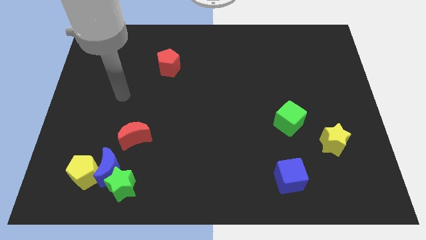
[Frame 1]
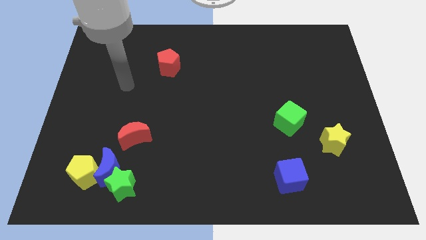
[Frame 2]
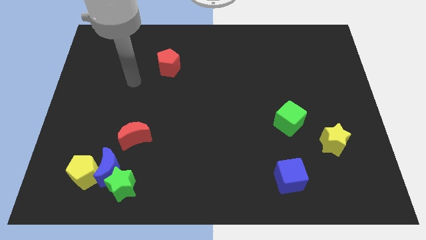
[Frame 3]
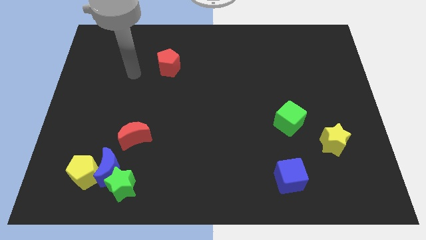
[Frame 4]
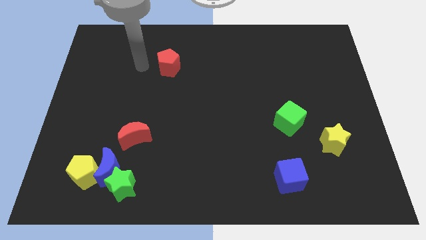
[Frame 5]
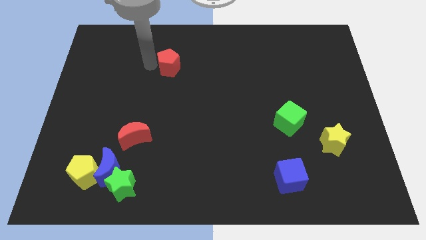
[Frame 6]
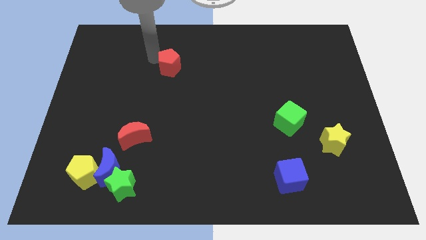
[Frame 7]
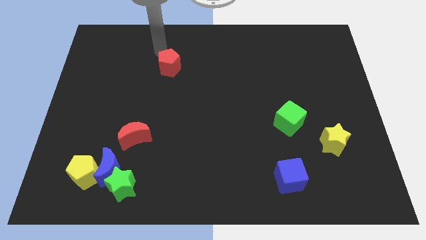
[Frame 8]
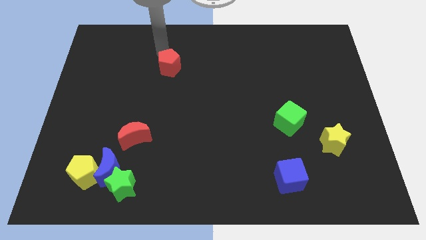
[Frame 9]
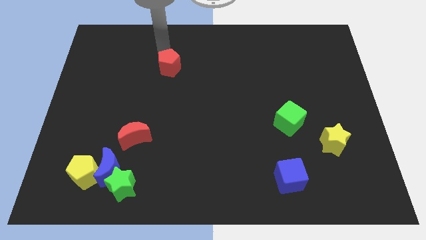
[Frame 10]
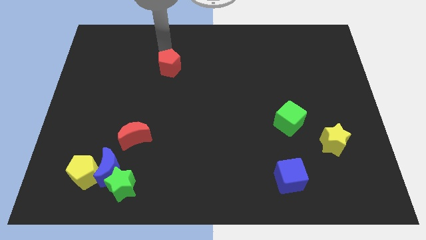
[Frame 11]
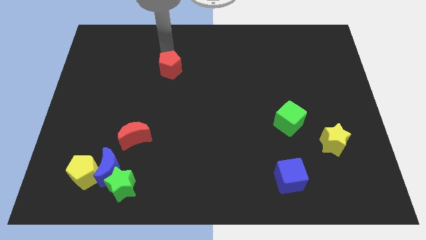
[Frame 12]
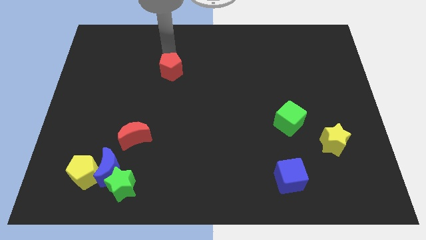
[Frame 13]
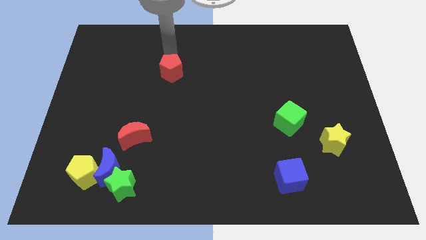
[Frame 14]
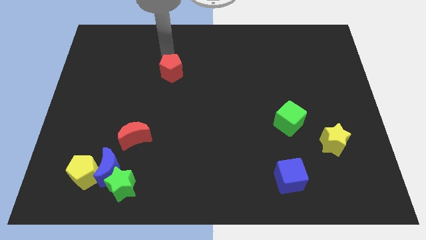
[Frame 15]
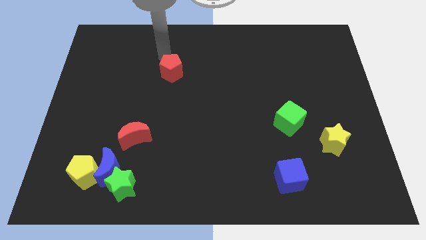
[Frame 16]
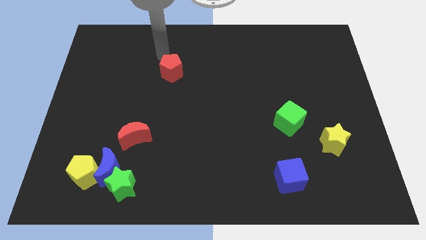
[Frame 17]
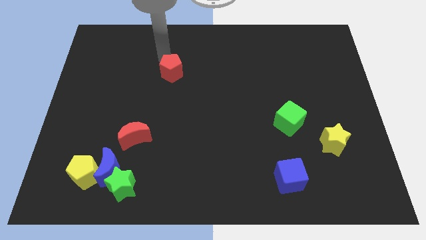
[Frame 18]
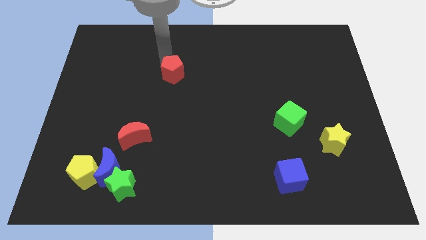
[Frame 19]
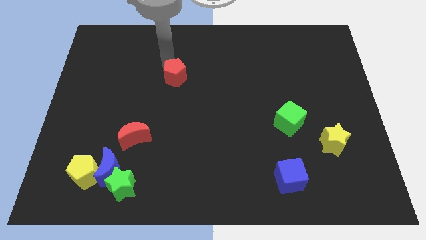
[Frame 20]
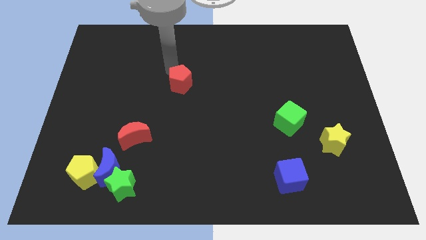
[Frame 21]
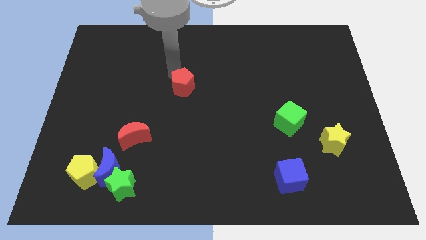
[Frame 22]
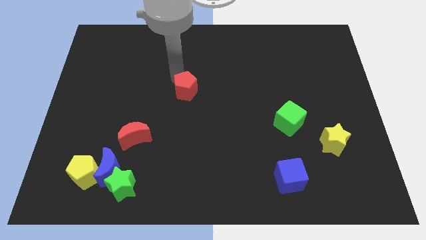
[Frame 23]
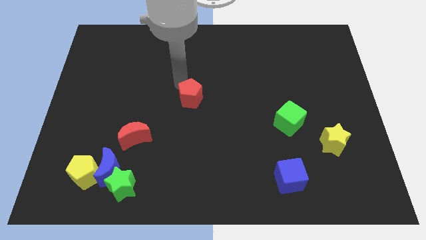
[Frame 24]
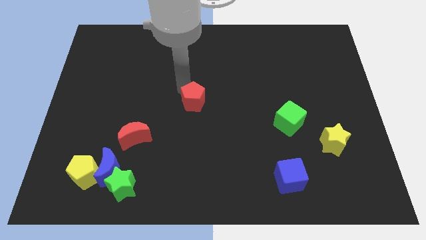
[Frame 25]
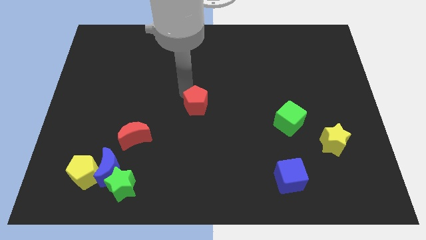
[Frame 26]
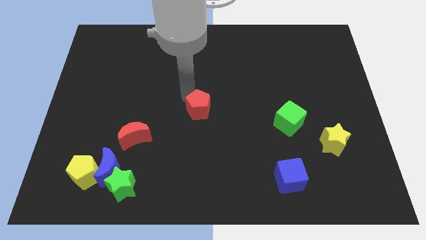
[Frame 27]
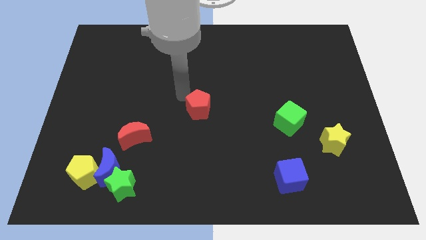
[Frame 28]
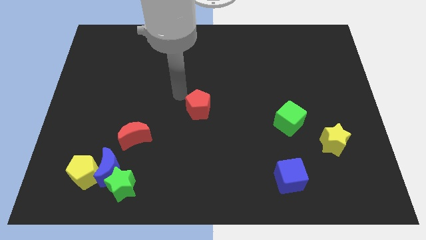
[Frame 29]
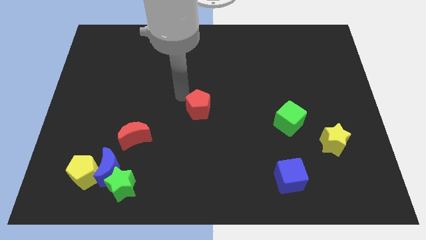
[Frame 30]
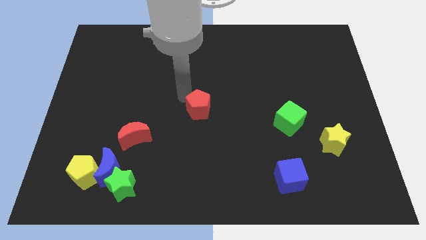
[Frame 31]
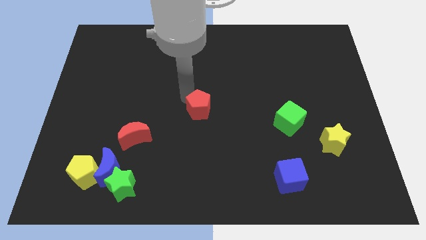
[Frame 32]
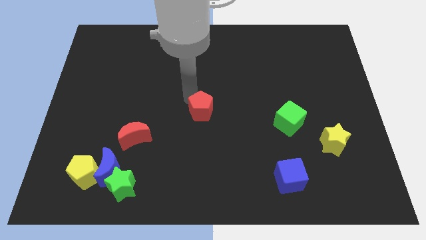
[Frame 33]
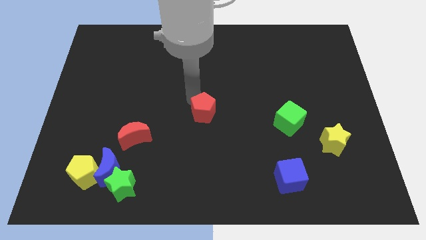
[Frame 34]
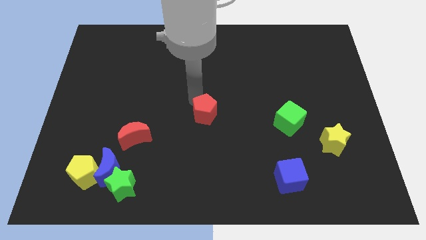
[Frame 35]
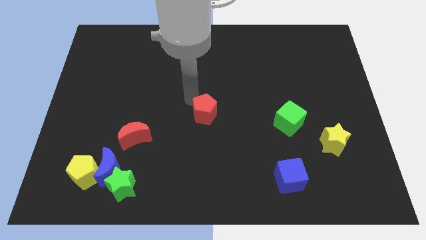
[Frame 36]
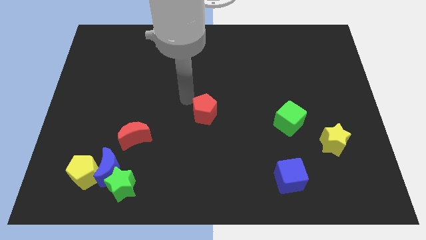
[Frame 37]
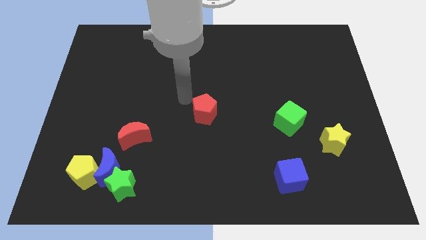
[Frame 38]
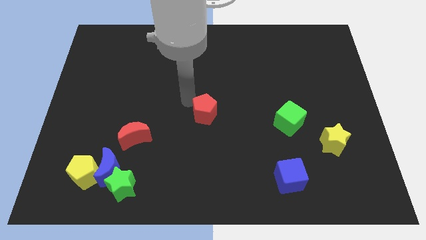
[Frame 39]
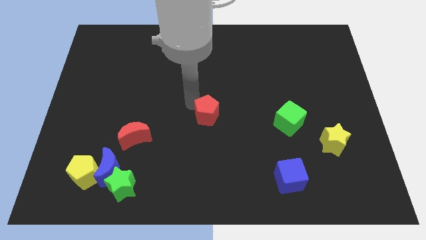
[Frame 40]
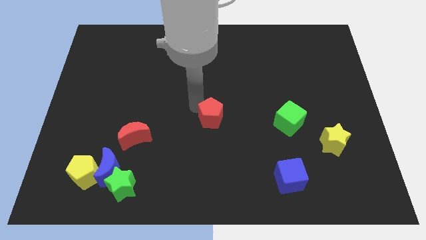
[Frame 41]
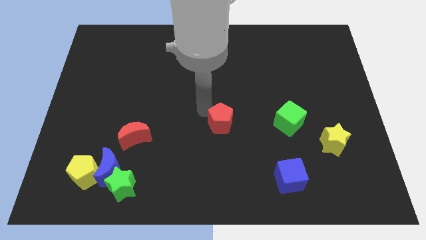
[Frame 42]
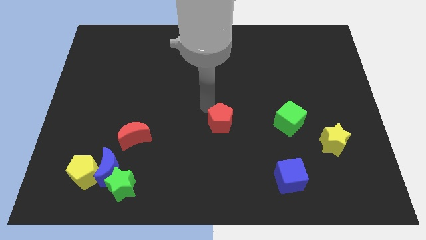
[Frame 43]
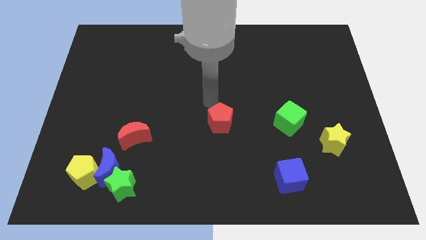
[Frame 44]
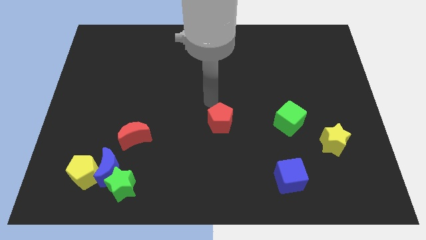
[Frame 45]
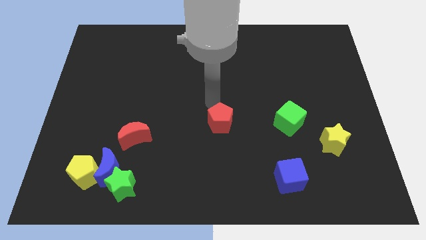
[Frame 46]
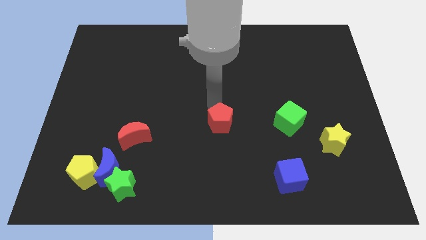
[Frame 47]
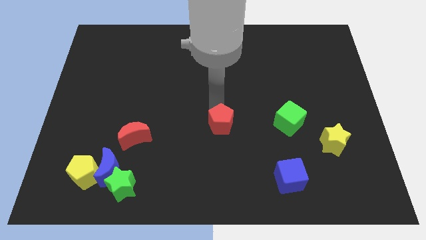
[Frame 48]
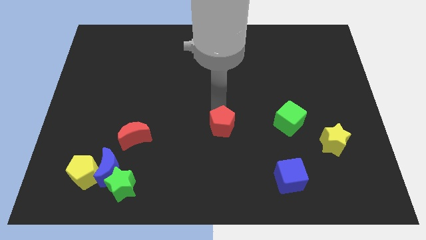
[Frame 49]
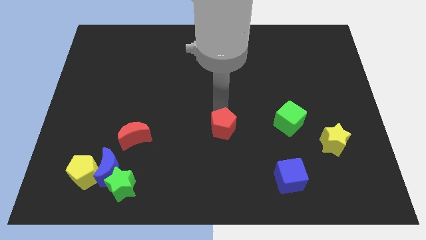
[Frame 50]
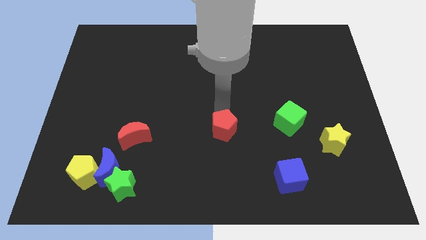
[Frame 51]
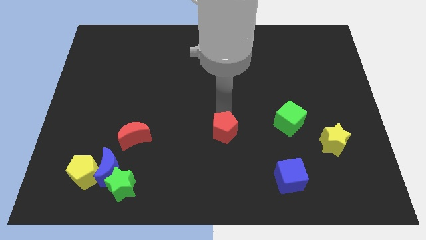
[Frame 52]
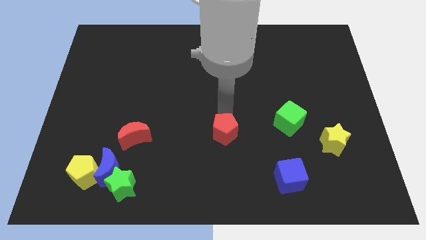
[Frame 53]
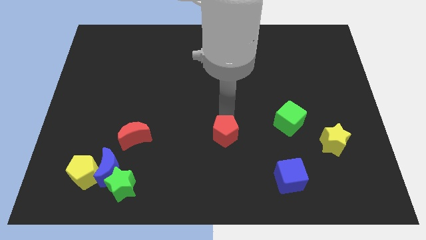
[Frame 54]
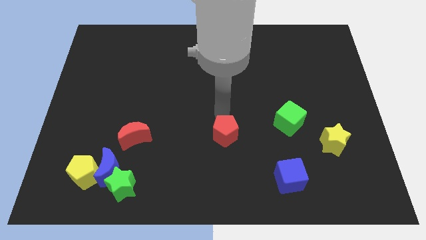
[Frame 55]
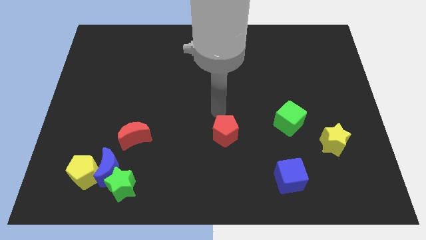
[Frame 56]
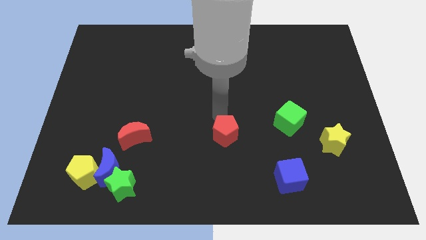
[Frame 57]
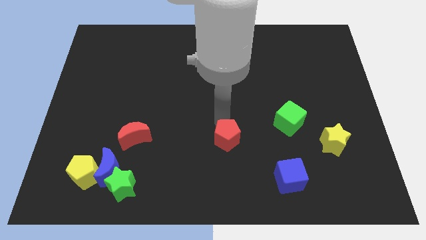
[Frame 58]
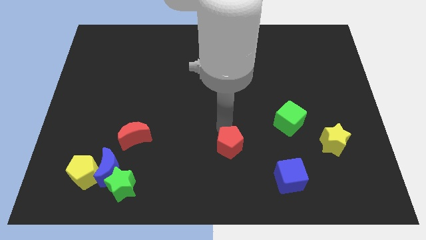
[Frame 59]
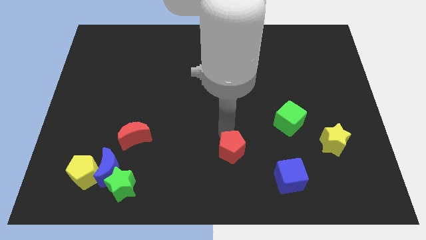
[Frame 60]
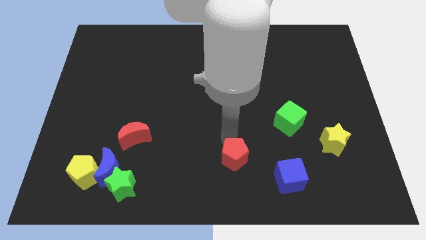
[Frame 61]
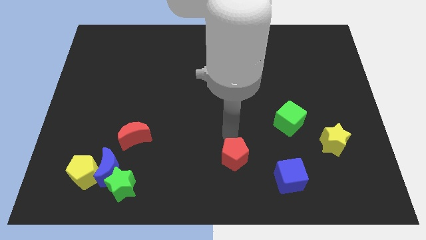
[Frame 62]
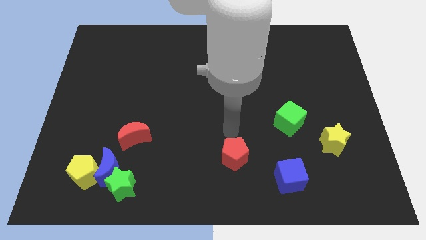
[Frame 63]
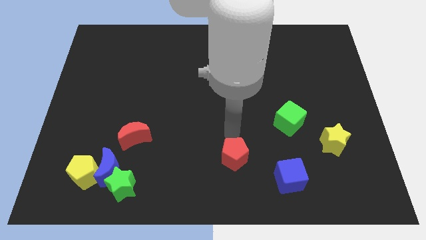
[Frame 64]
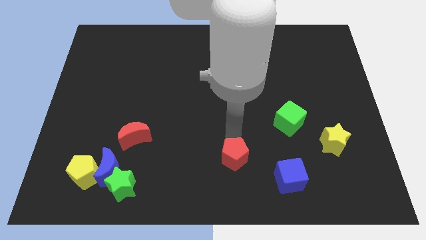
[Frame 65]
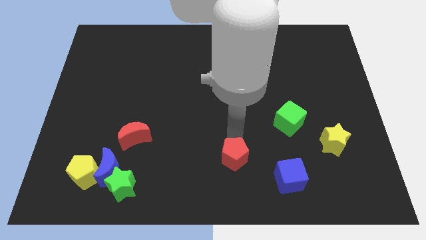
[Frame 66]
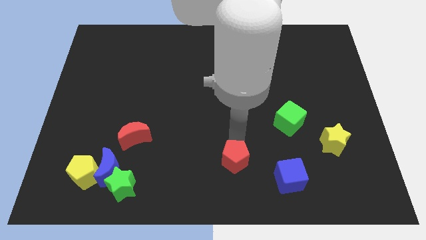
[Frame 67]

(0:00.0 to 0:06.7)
move the red pentagon just left of the blue cube

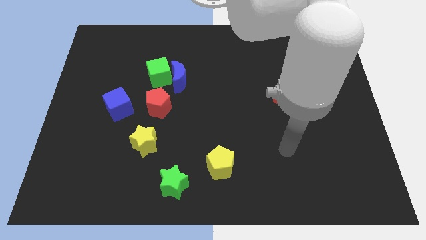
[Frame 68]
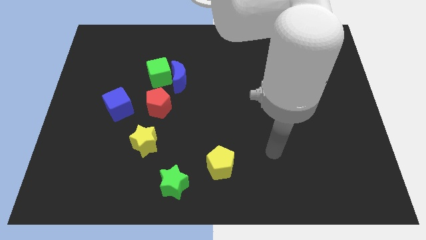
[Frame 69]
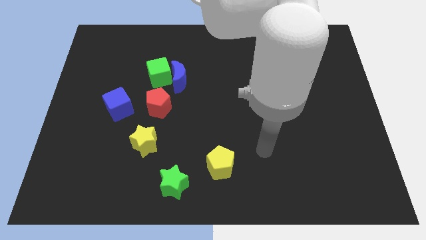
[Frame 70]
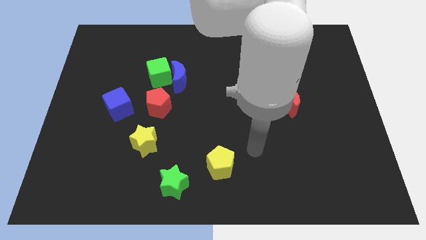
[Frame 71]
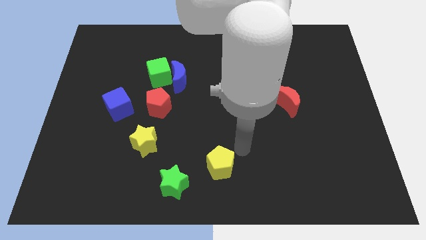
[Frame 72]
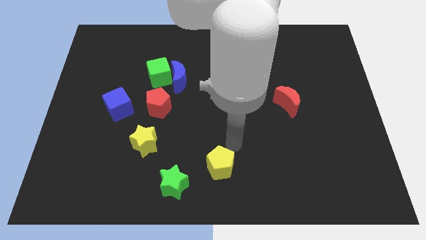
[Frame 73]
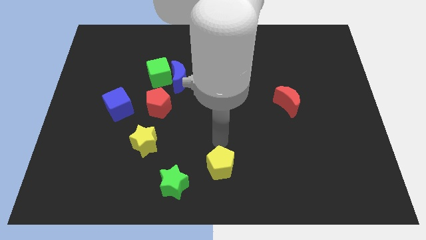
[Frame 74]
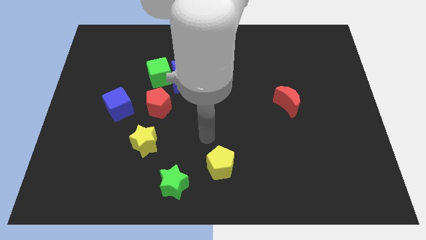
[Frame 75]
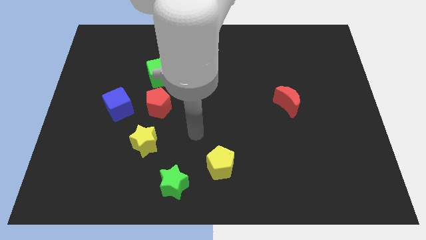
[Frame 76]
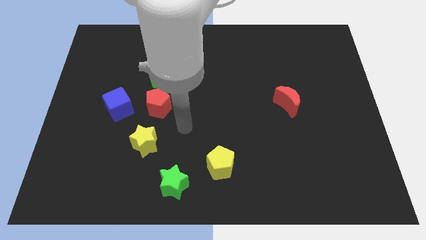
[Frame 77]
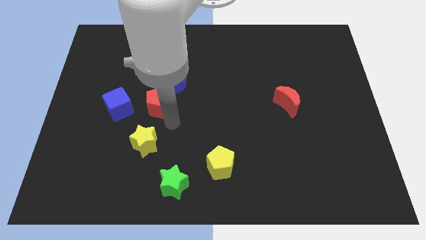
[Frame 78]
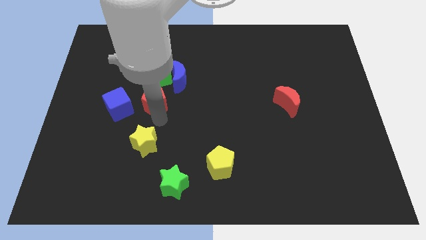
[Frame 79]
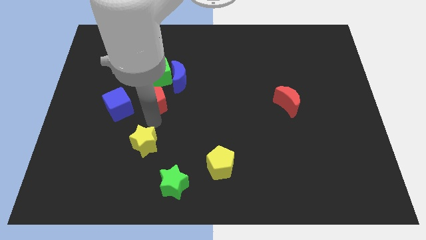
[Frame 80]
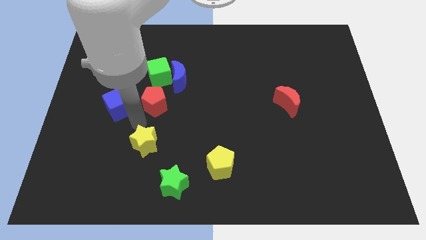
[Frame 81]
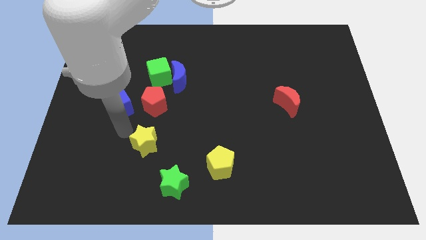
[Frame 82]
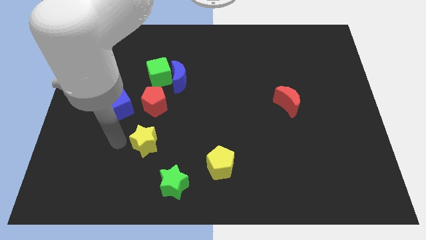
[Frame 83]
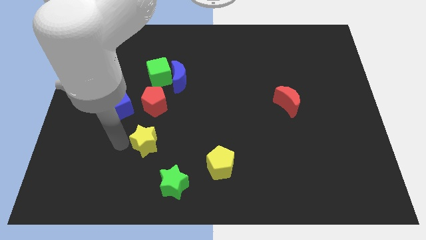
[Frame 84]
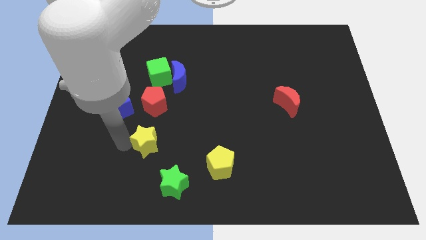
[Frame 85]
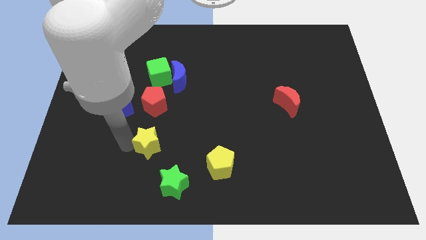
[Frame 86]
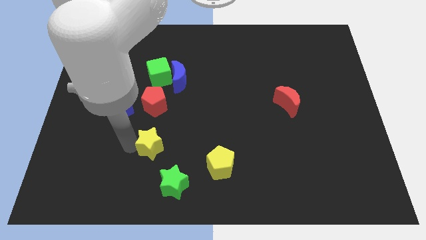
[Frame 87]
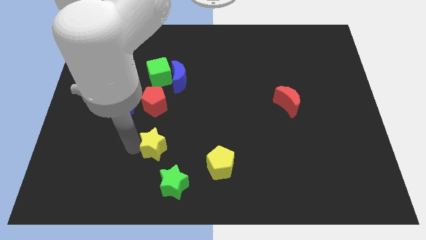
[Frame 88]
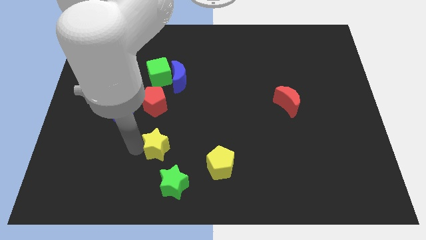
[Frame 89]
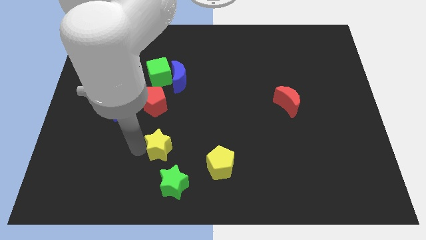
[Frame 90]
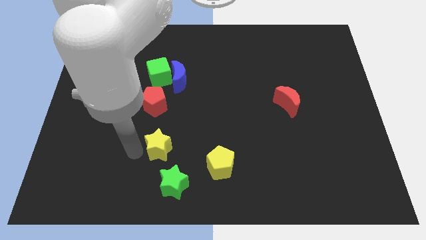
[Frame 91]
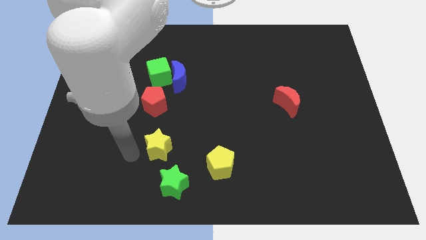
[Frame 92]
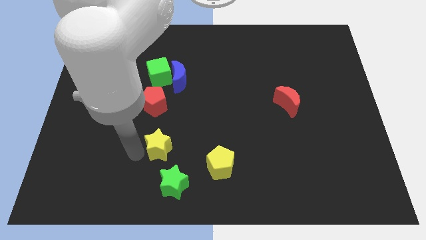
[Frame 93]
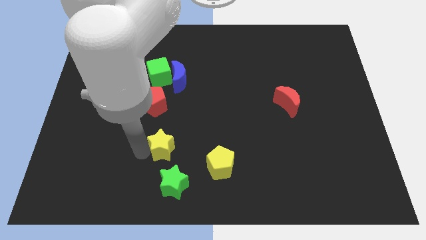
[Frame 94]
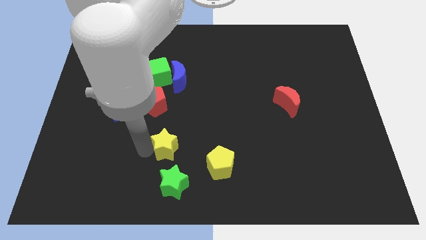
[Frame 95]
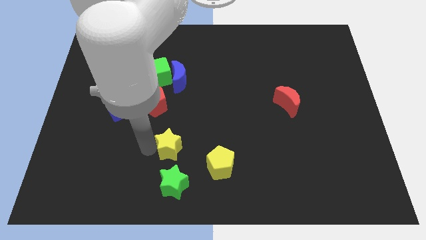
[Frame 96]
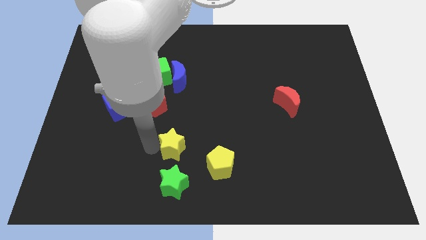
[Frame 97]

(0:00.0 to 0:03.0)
move the yellow star to the top left of the yellow pentagon
